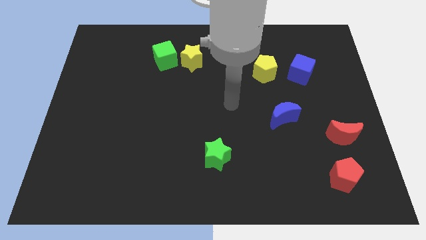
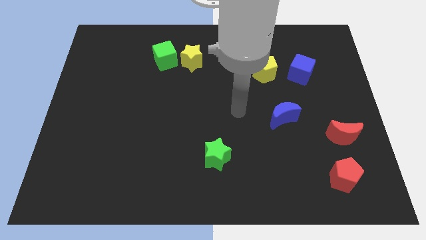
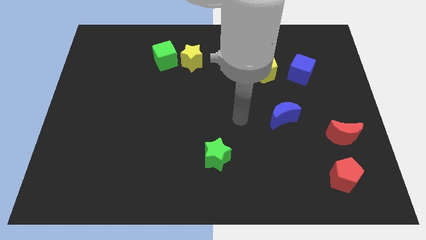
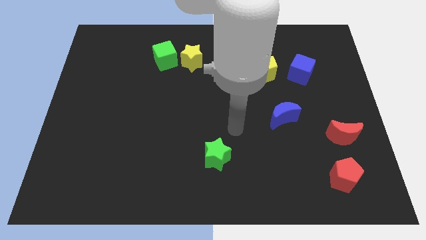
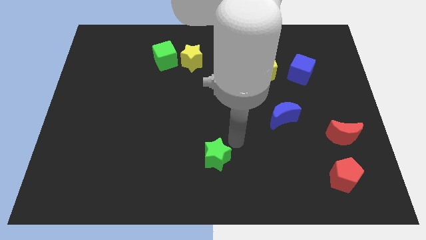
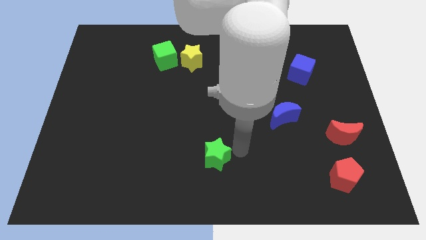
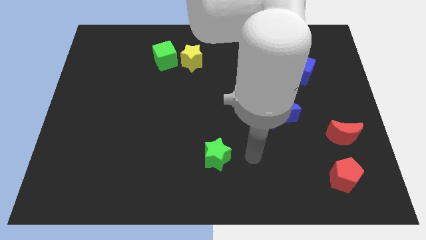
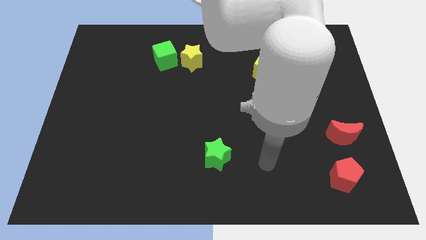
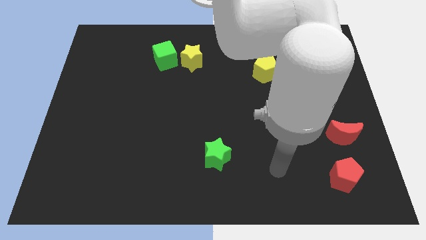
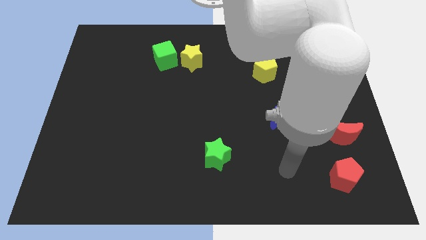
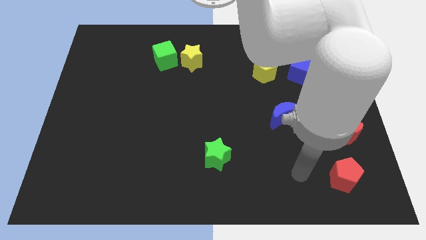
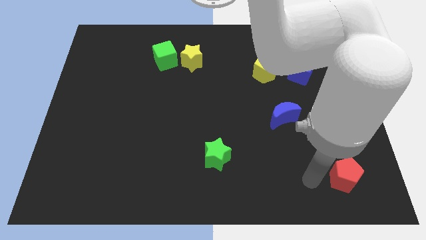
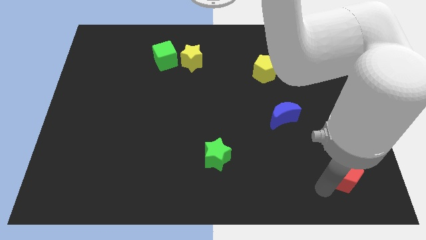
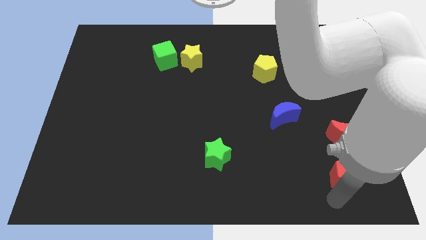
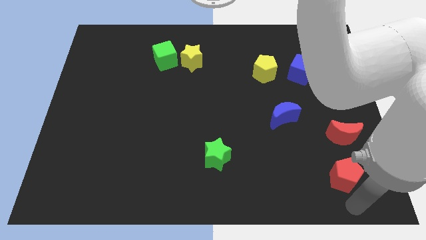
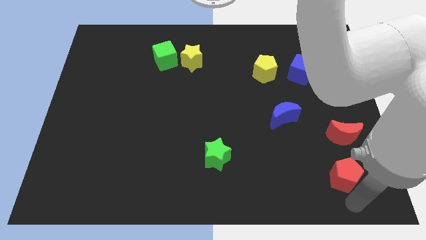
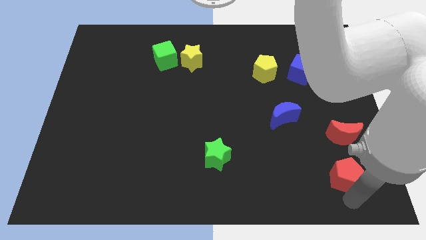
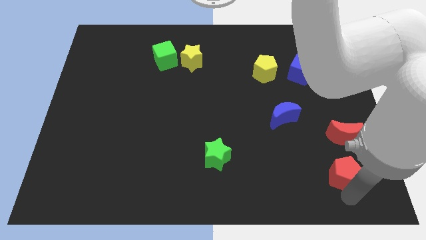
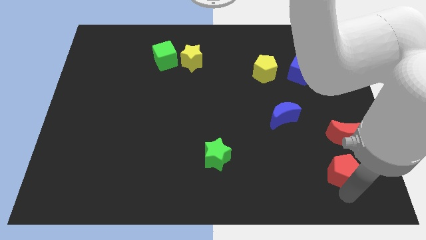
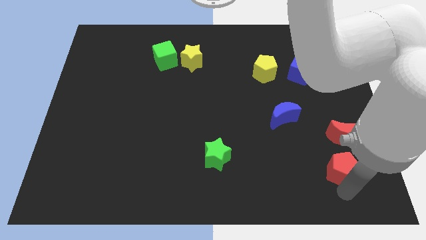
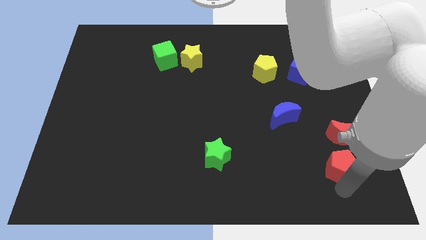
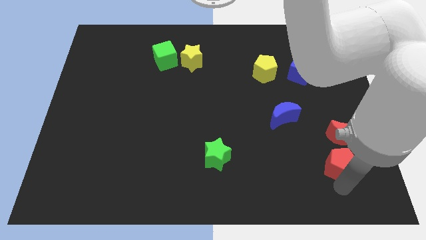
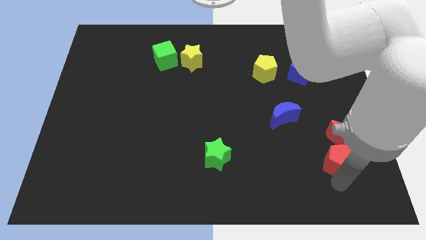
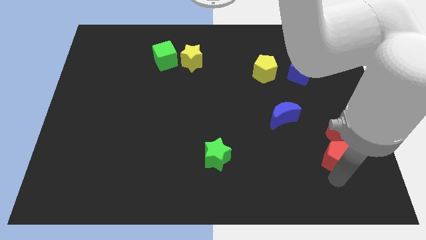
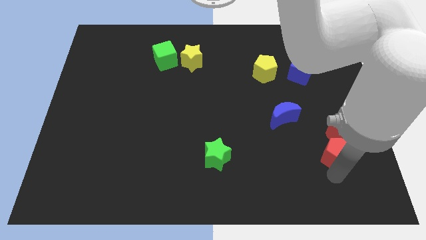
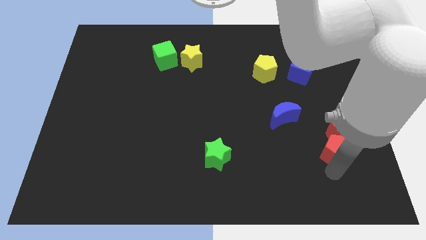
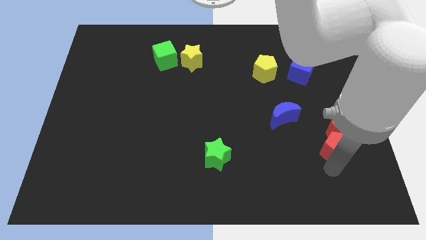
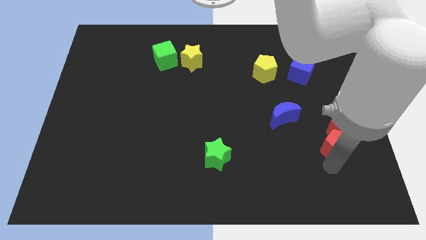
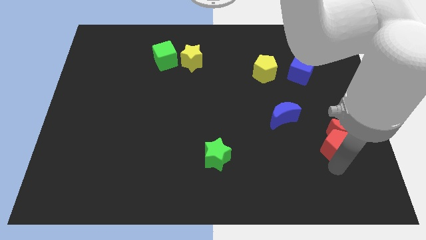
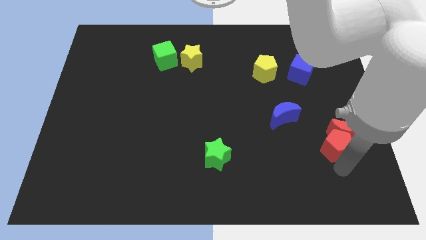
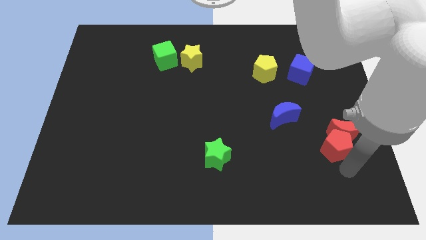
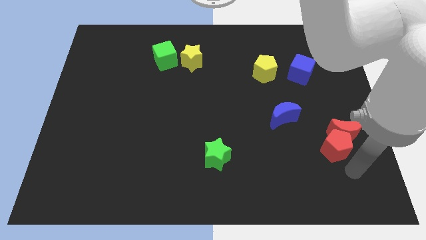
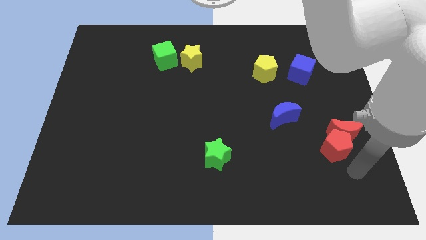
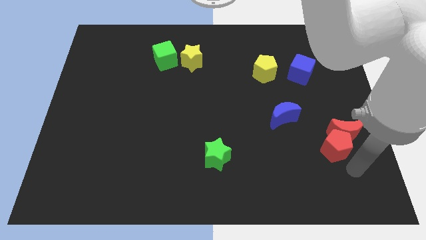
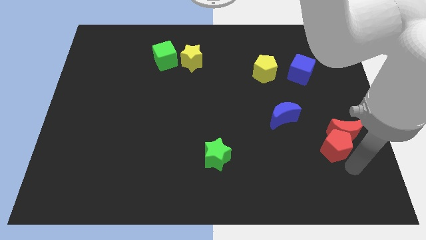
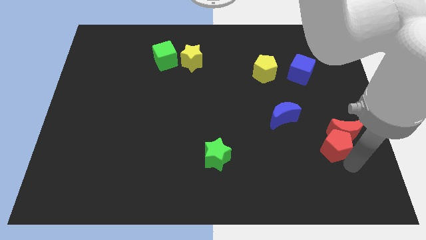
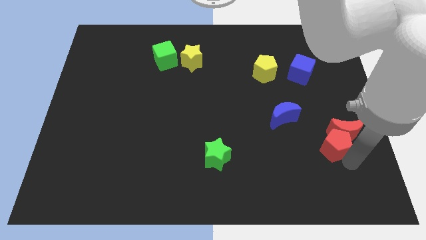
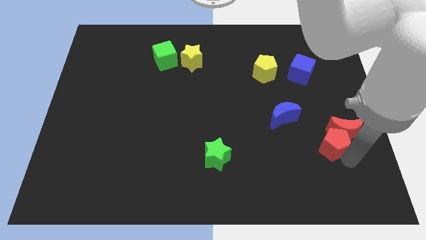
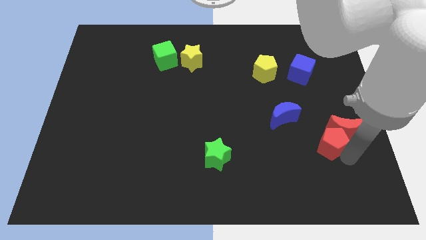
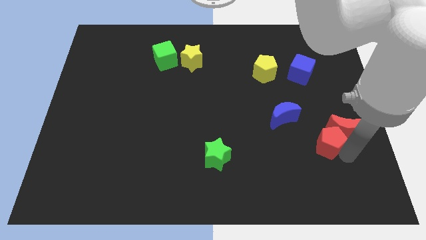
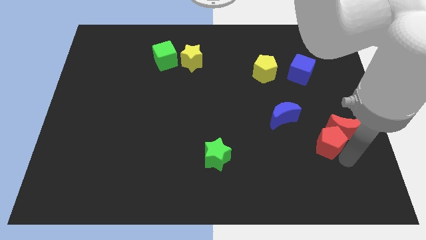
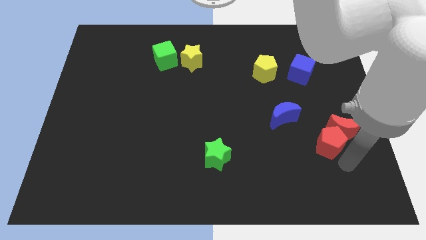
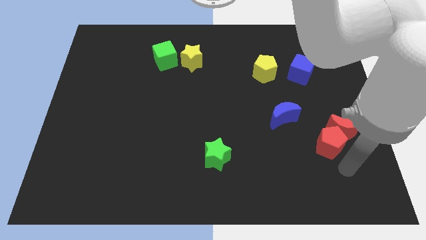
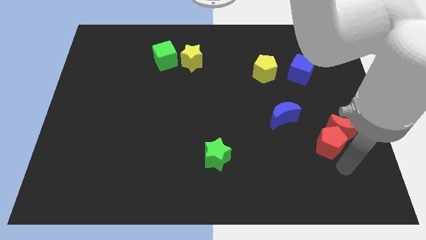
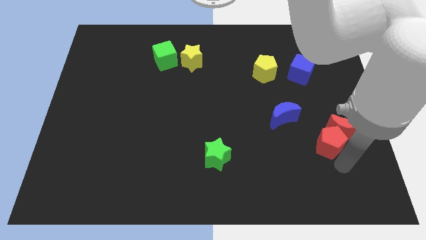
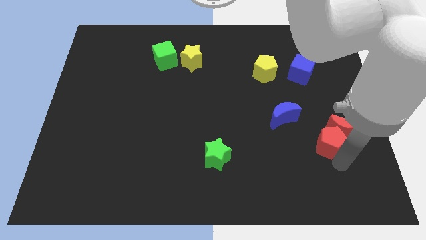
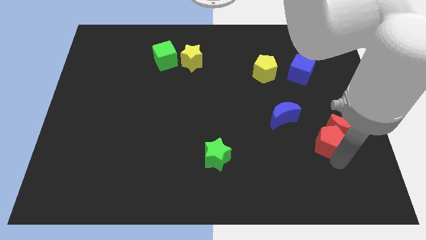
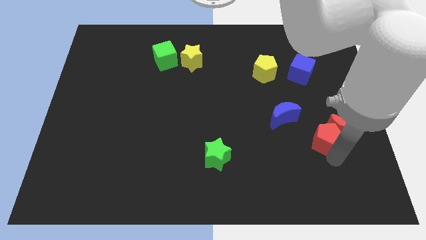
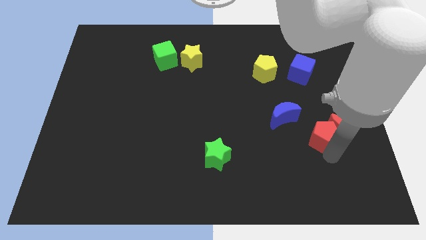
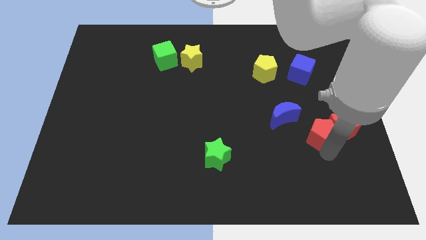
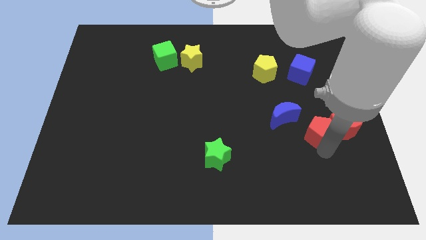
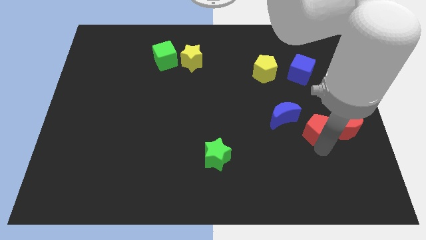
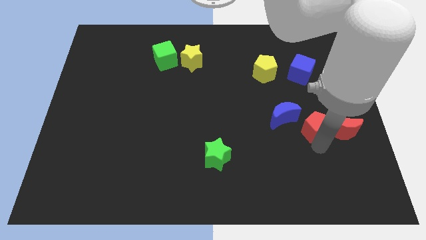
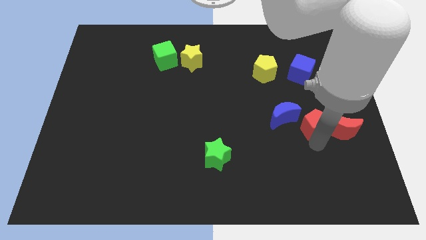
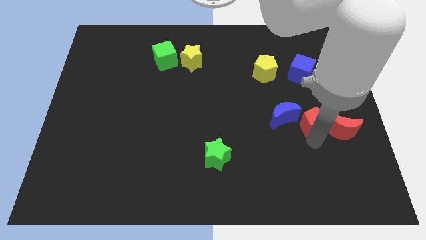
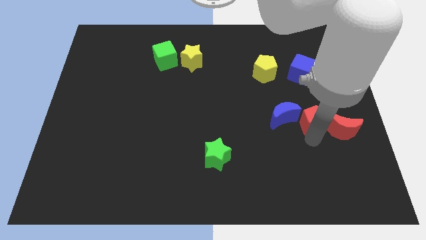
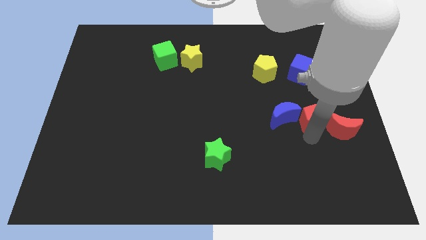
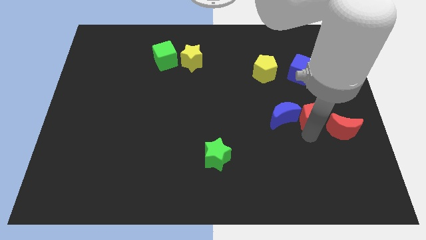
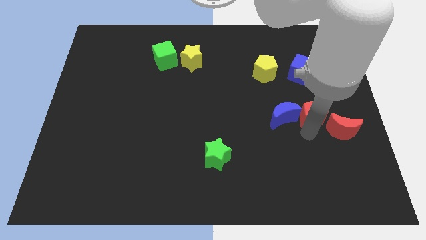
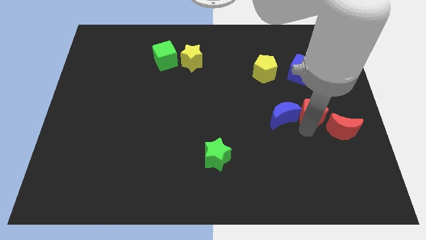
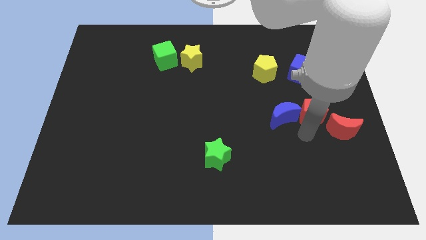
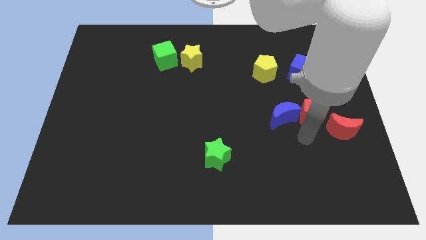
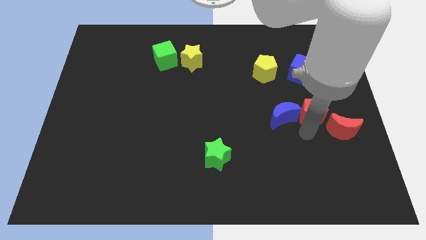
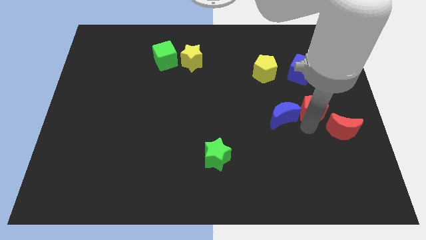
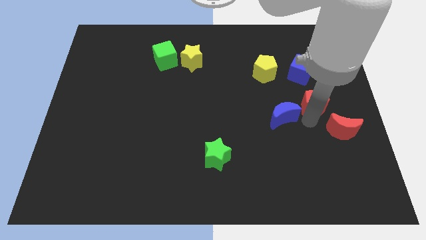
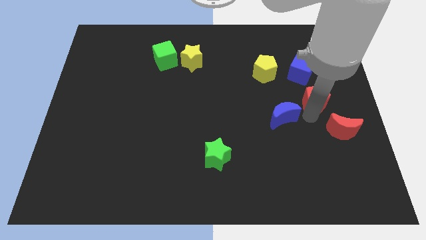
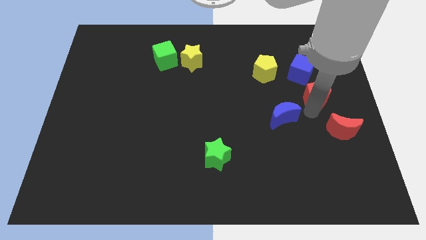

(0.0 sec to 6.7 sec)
push the red pentagon upwards

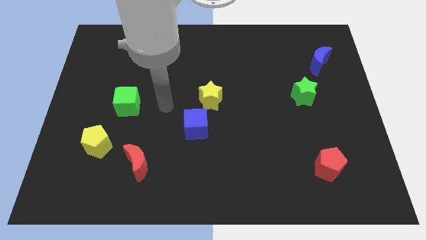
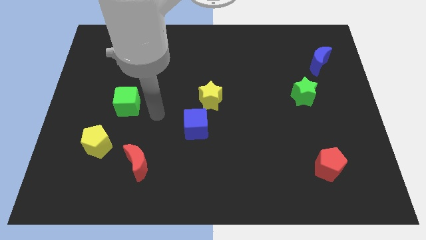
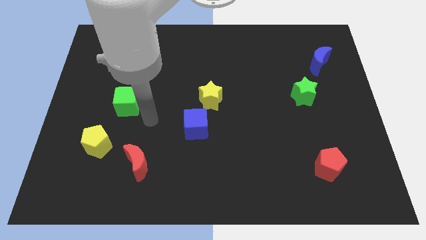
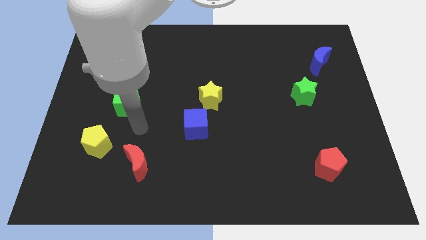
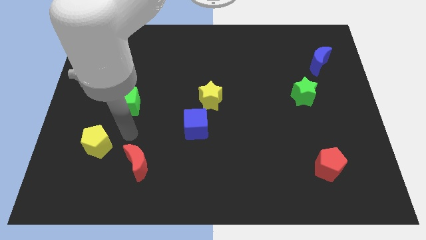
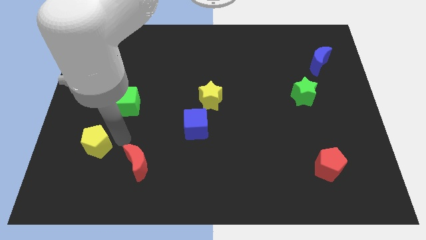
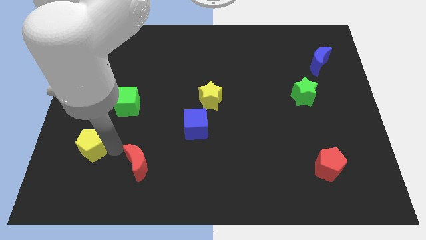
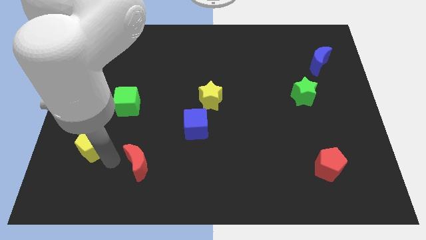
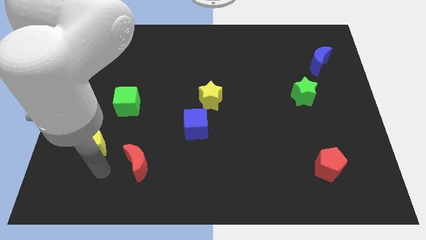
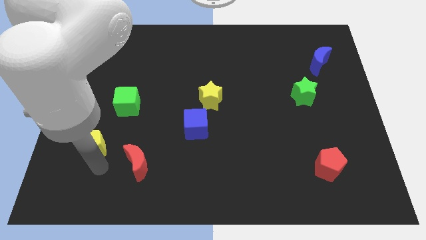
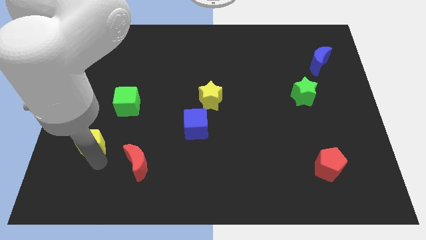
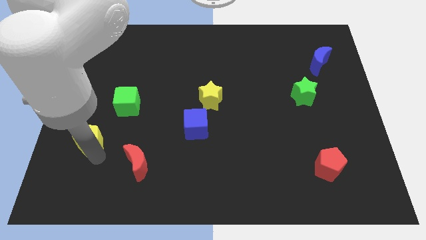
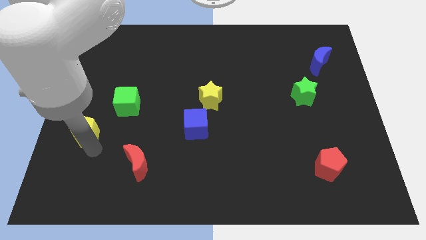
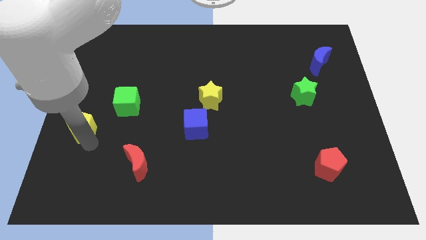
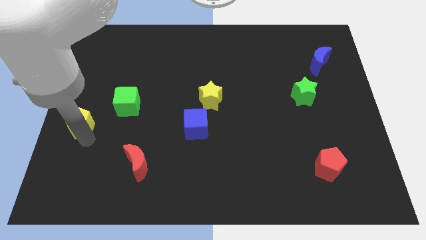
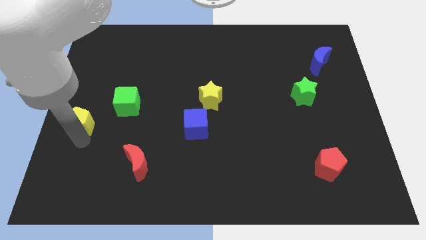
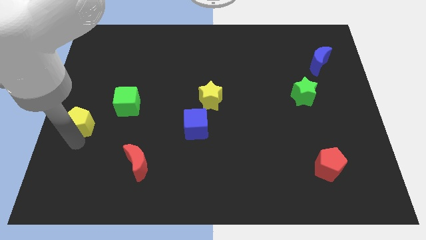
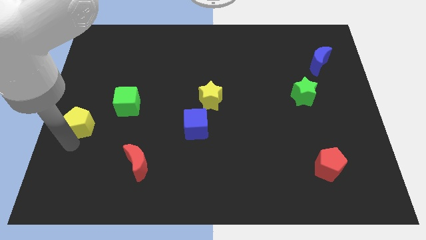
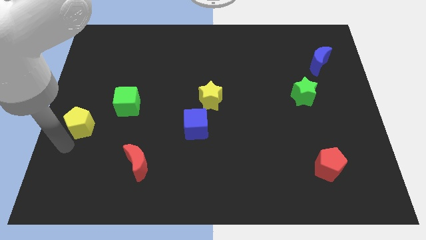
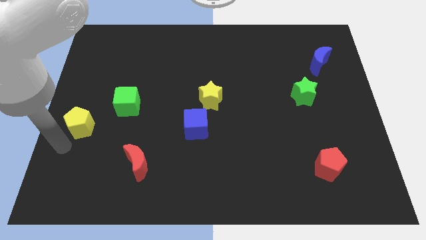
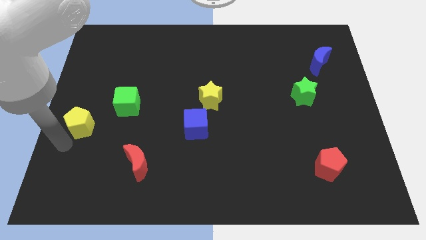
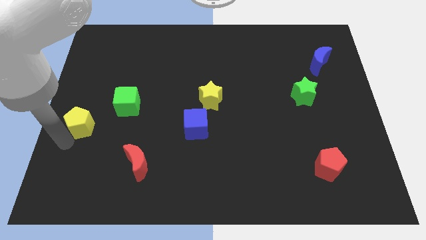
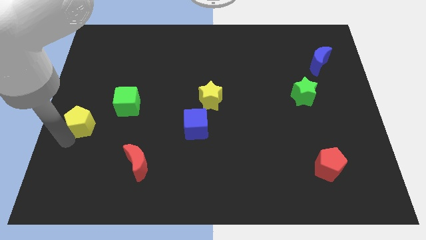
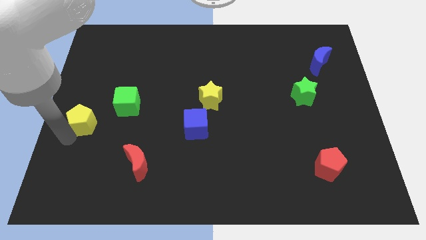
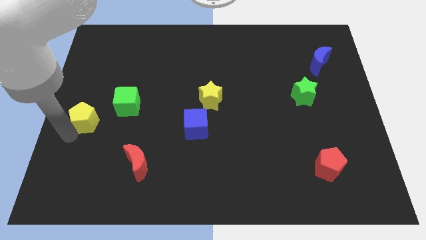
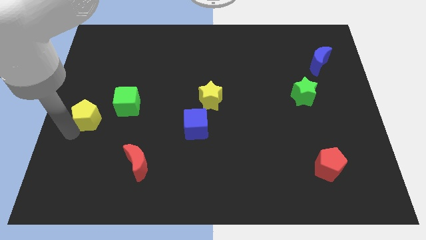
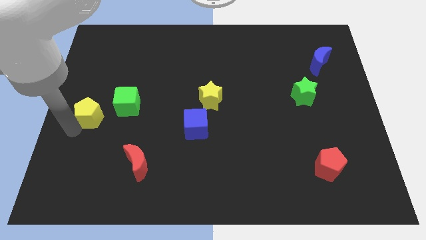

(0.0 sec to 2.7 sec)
slide the yellow pentagon upwards slightly
